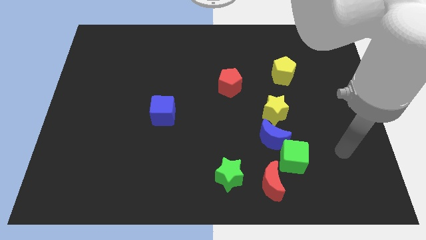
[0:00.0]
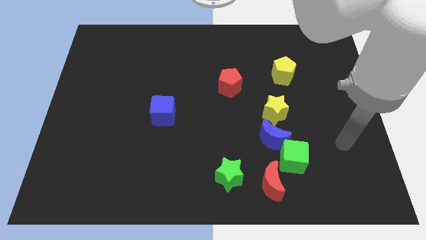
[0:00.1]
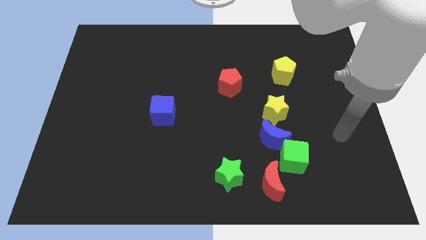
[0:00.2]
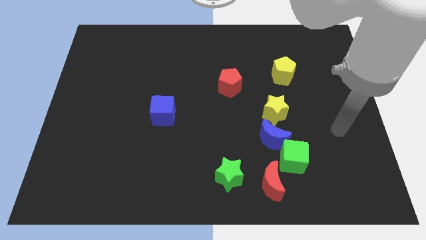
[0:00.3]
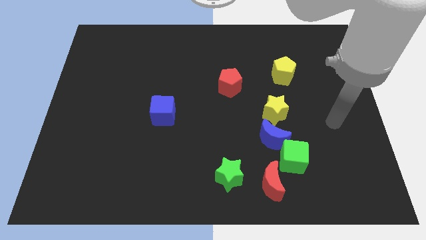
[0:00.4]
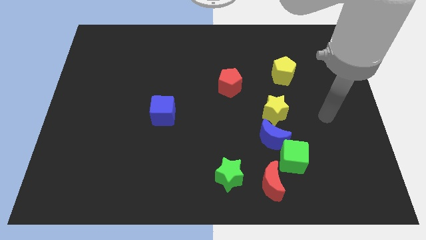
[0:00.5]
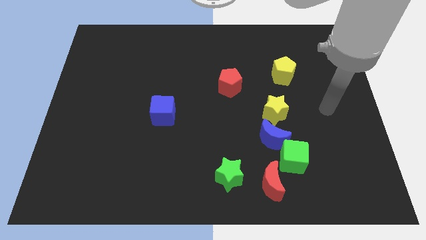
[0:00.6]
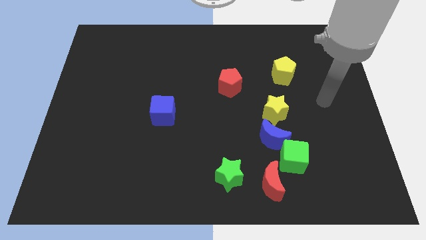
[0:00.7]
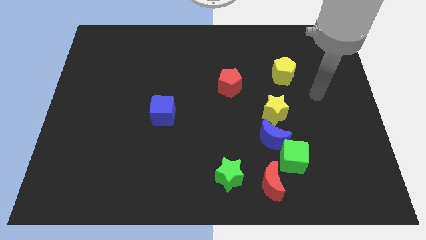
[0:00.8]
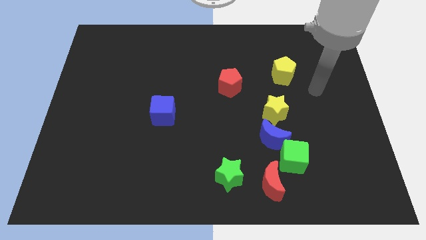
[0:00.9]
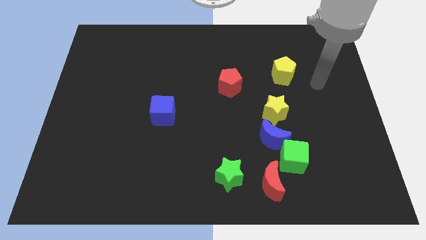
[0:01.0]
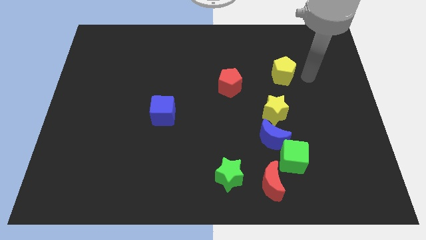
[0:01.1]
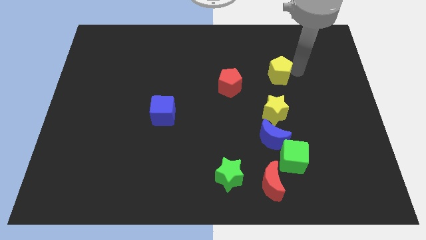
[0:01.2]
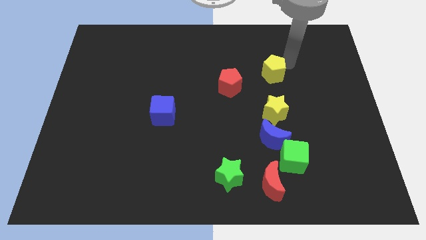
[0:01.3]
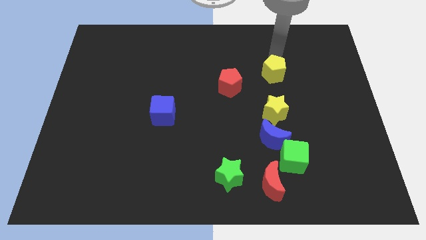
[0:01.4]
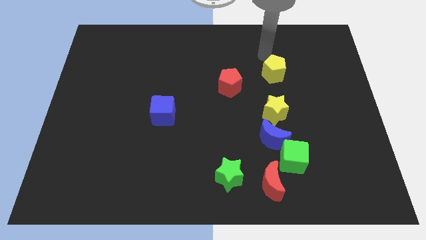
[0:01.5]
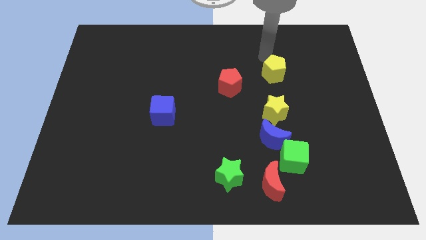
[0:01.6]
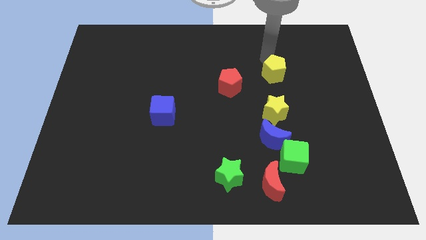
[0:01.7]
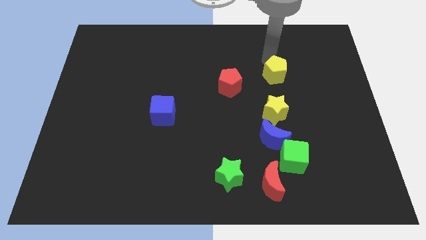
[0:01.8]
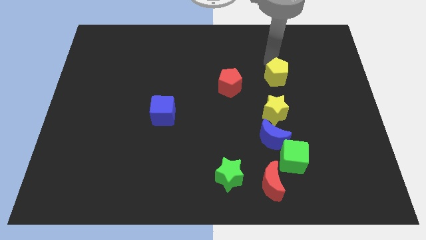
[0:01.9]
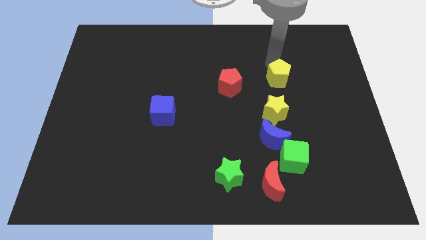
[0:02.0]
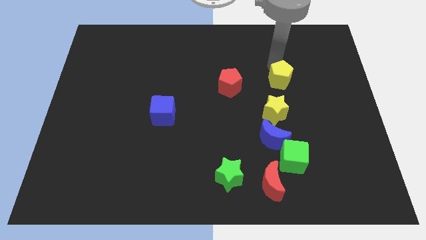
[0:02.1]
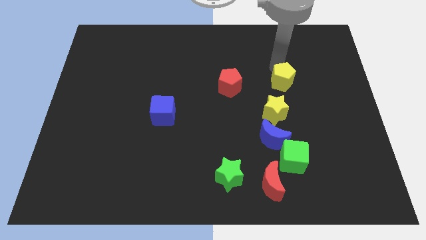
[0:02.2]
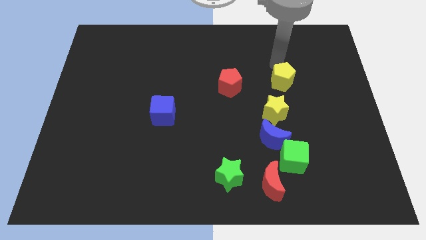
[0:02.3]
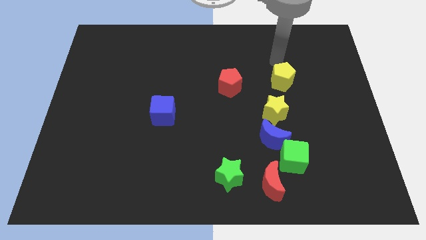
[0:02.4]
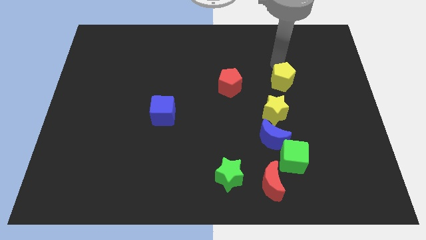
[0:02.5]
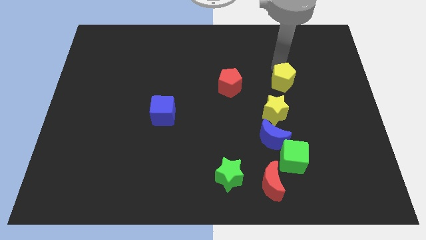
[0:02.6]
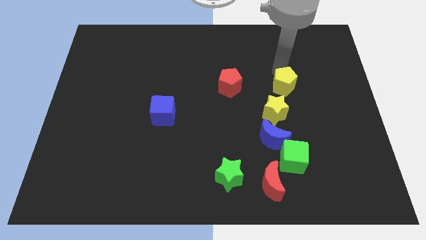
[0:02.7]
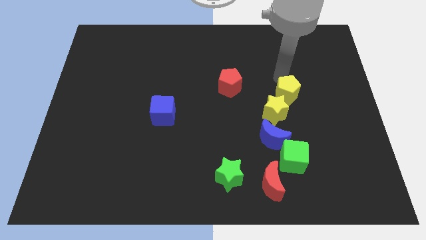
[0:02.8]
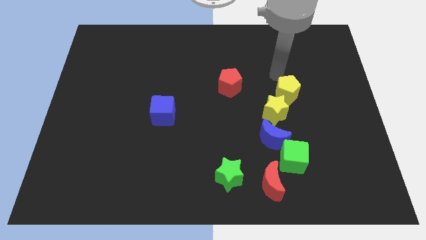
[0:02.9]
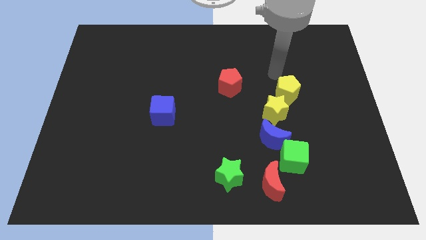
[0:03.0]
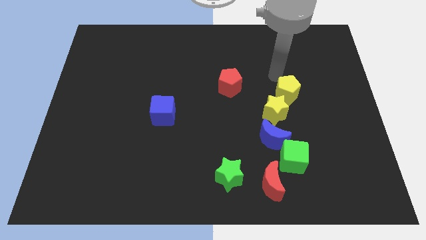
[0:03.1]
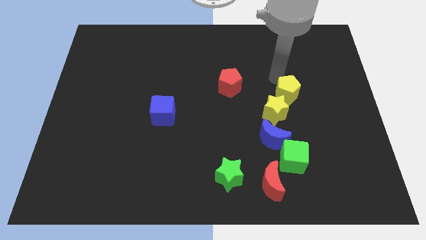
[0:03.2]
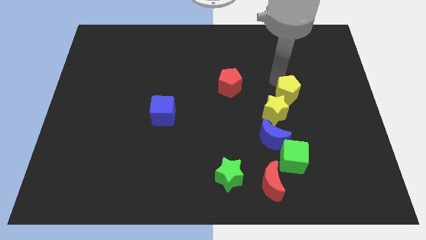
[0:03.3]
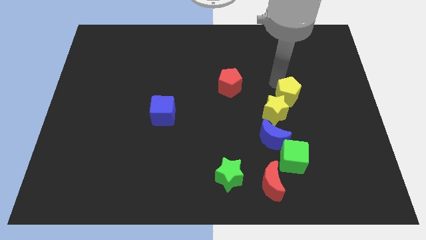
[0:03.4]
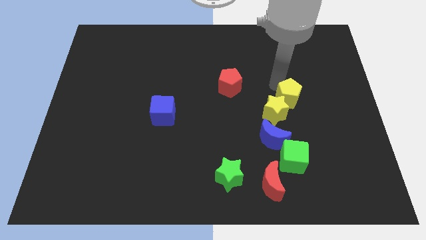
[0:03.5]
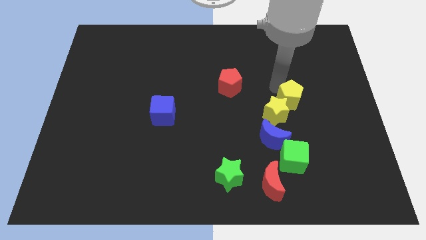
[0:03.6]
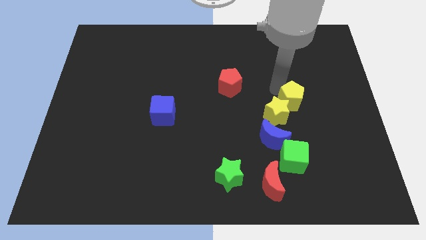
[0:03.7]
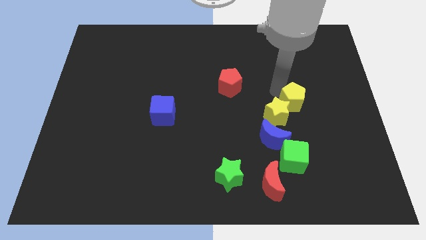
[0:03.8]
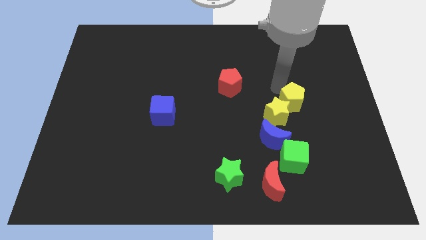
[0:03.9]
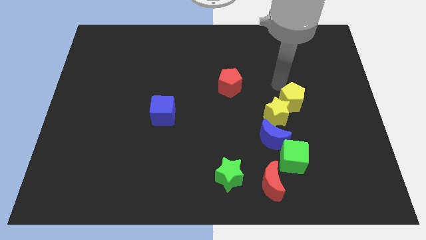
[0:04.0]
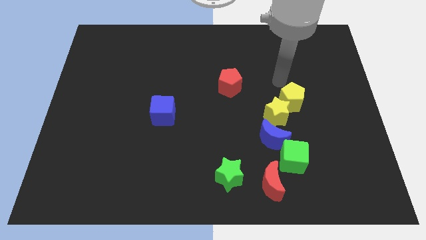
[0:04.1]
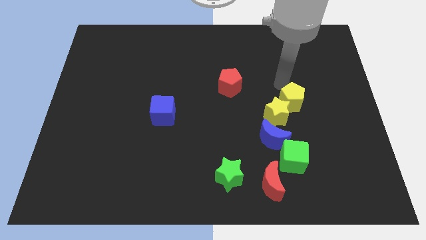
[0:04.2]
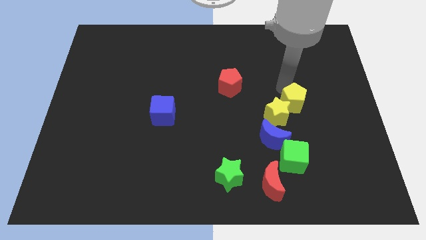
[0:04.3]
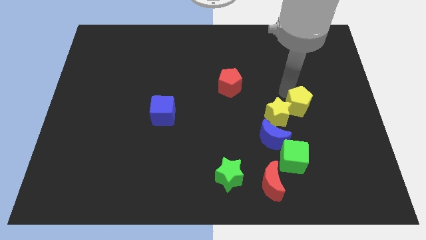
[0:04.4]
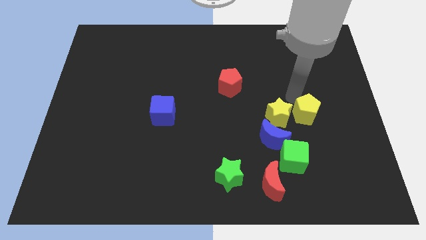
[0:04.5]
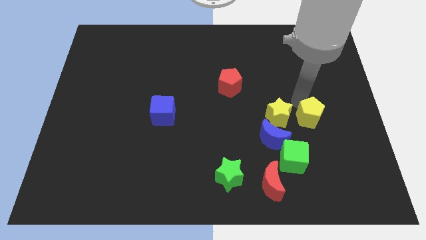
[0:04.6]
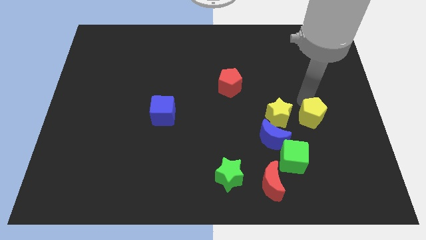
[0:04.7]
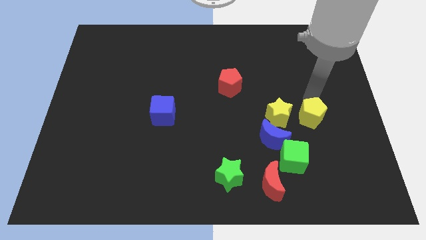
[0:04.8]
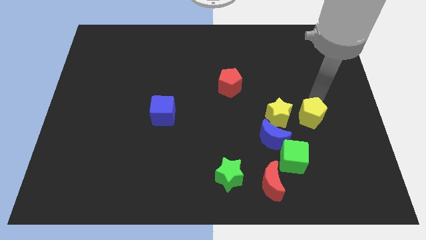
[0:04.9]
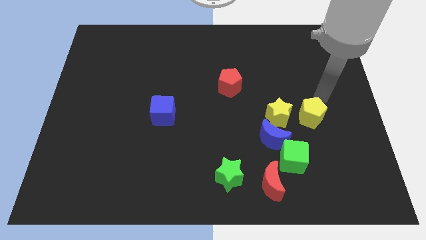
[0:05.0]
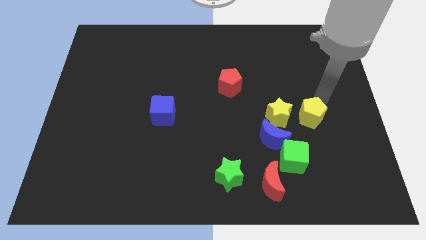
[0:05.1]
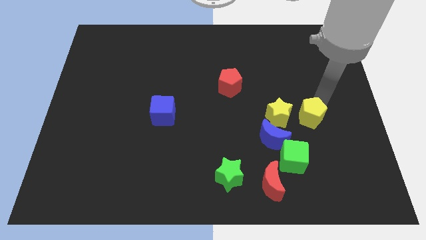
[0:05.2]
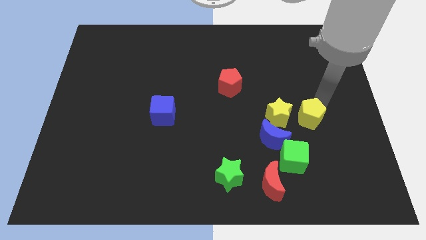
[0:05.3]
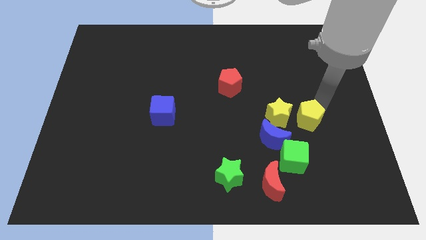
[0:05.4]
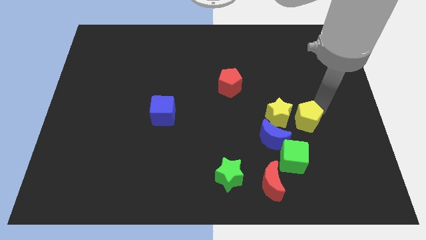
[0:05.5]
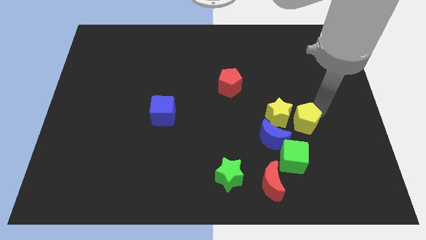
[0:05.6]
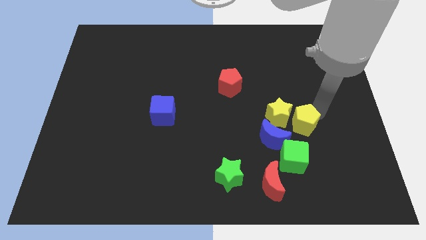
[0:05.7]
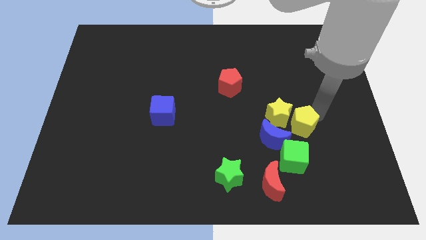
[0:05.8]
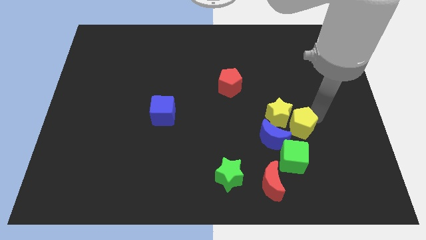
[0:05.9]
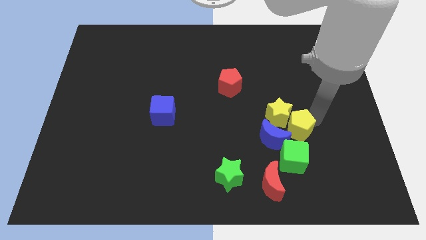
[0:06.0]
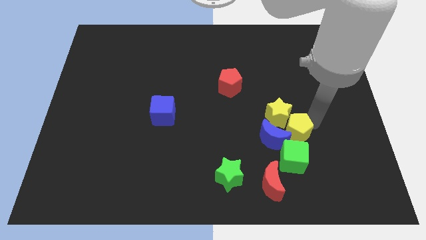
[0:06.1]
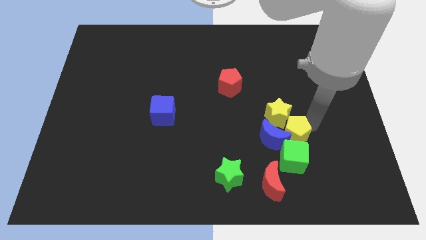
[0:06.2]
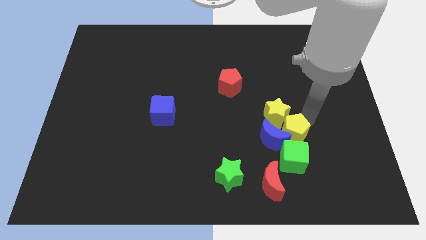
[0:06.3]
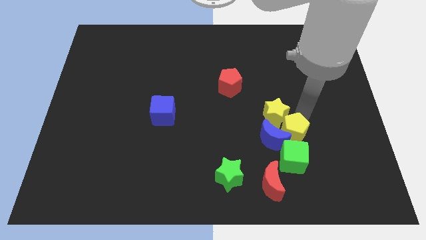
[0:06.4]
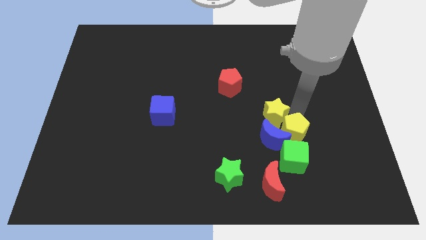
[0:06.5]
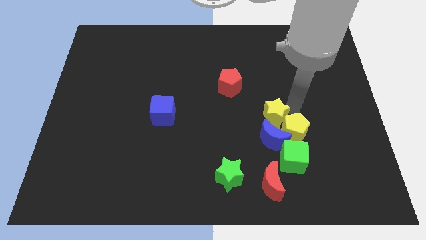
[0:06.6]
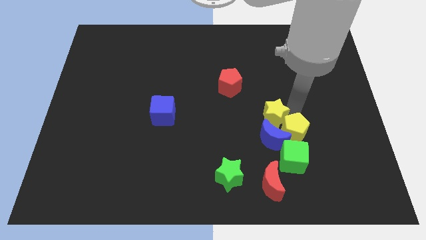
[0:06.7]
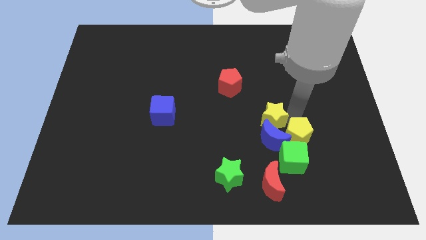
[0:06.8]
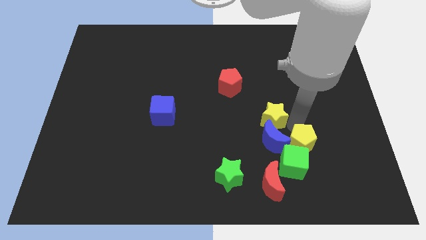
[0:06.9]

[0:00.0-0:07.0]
put the yellow pentagon close to the green cube
